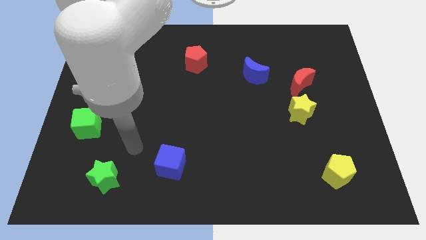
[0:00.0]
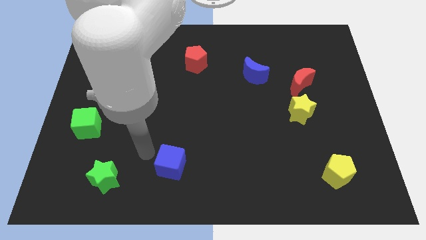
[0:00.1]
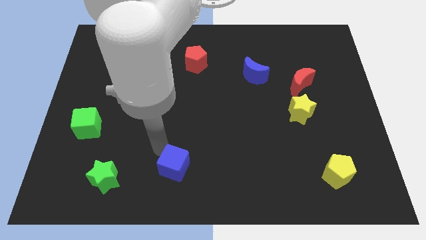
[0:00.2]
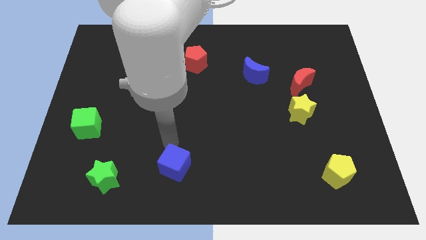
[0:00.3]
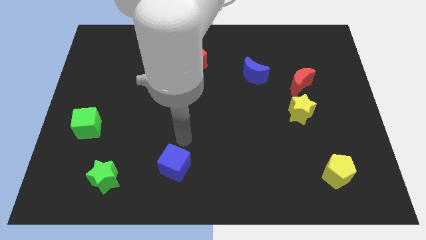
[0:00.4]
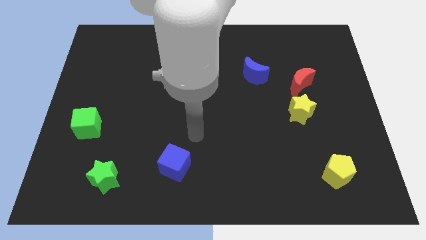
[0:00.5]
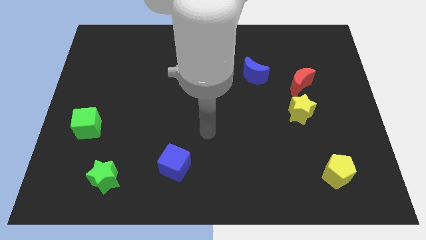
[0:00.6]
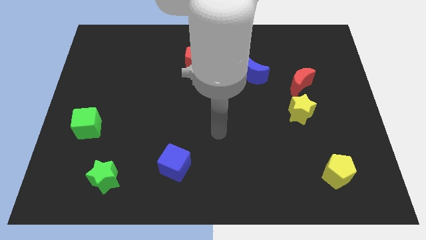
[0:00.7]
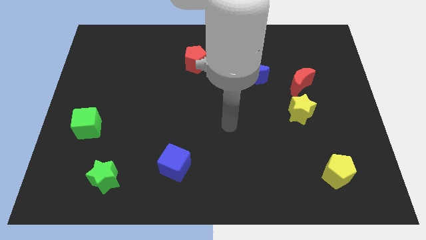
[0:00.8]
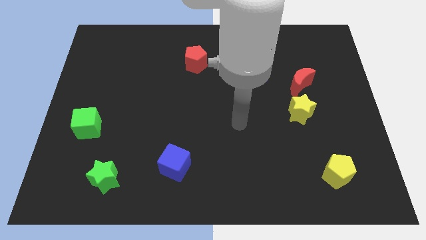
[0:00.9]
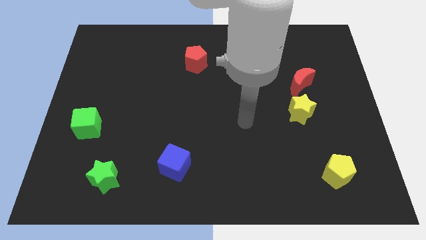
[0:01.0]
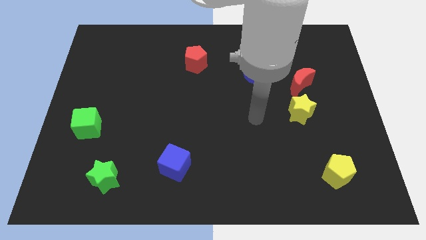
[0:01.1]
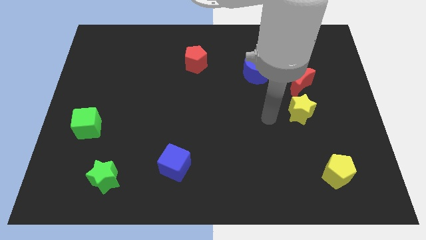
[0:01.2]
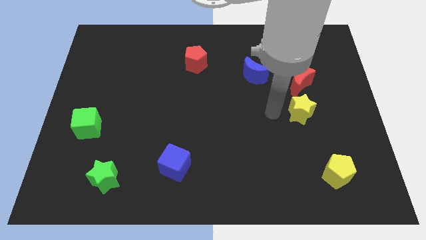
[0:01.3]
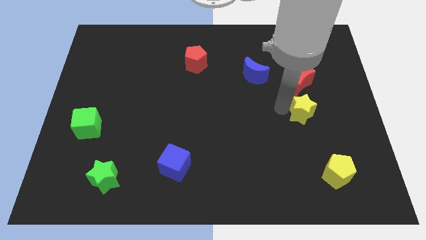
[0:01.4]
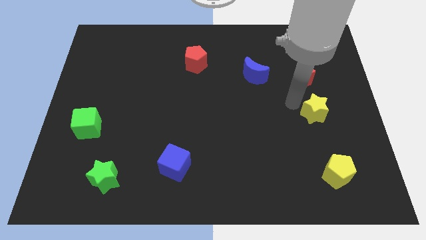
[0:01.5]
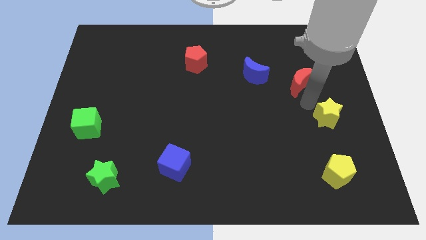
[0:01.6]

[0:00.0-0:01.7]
separate the red moon from the yellow star

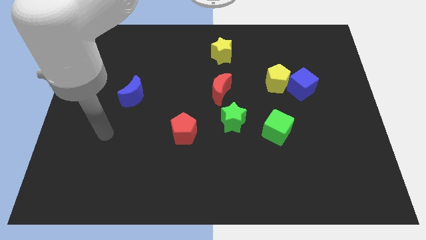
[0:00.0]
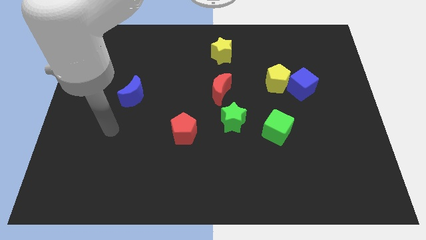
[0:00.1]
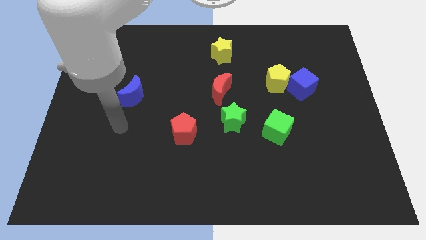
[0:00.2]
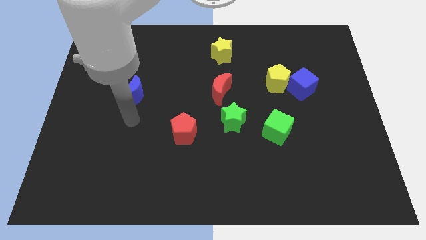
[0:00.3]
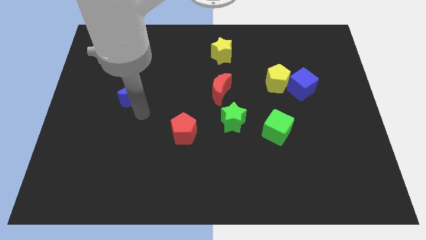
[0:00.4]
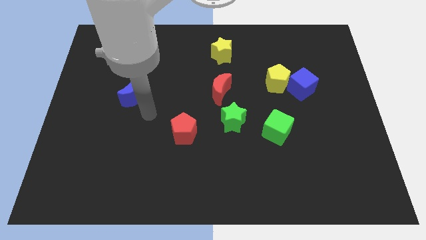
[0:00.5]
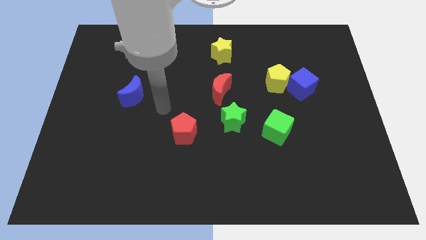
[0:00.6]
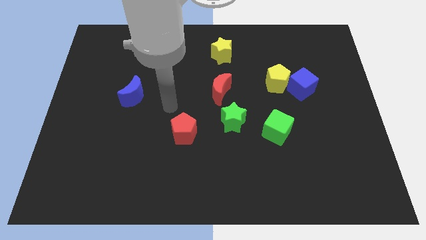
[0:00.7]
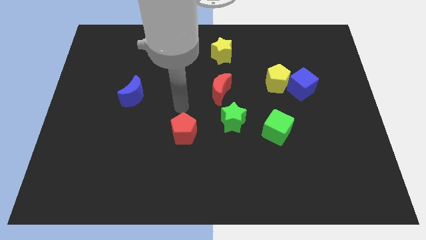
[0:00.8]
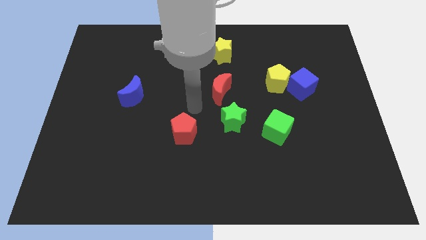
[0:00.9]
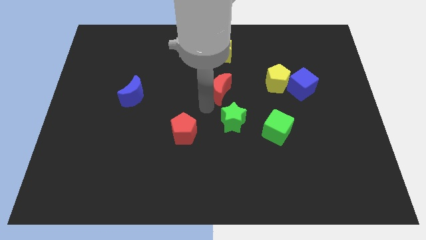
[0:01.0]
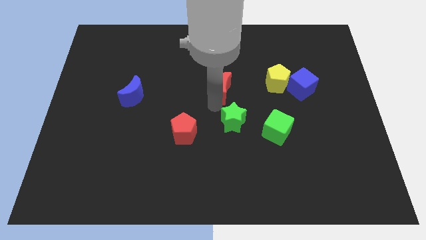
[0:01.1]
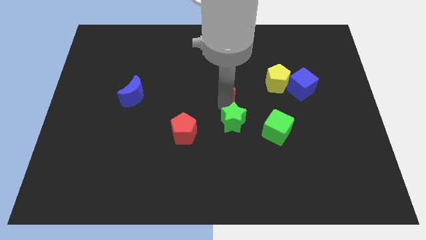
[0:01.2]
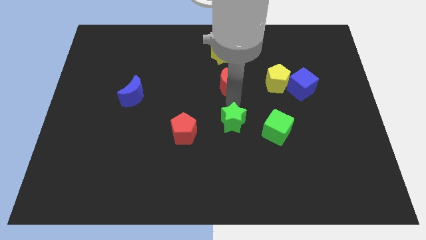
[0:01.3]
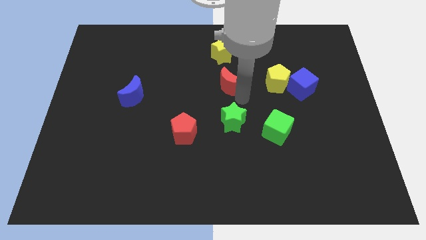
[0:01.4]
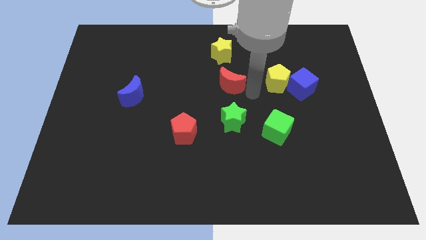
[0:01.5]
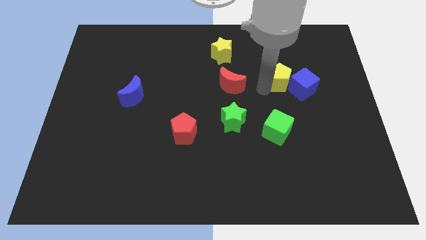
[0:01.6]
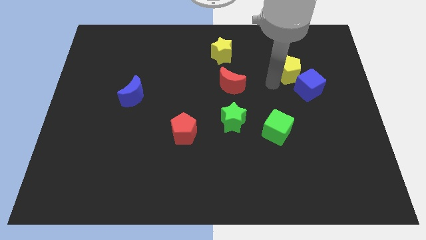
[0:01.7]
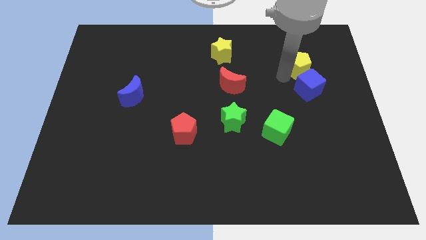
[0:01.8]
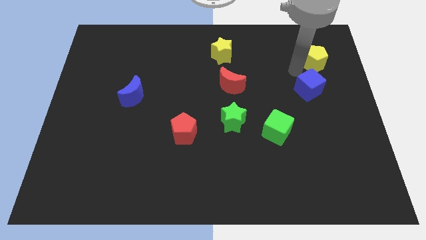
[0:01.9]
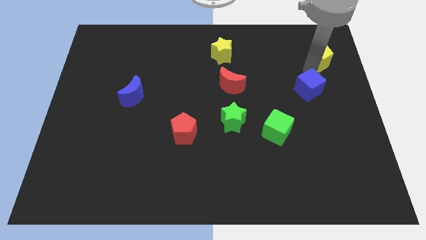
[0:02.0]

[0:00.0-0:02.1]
separate the blue cube from the yellow pentagon

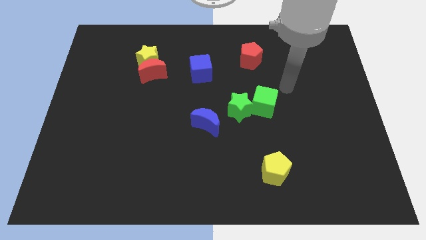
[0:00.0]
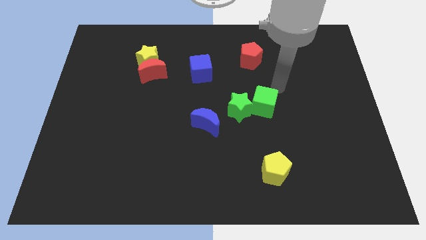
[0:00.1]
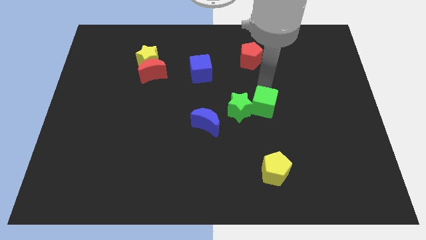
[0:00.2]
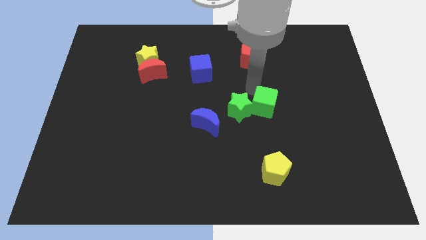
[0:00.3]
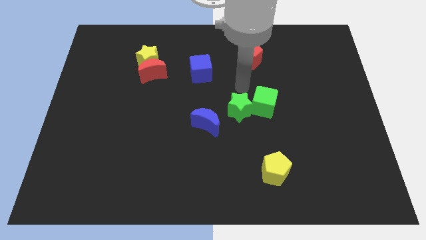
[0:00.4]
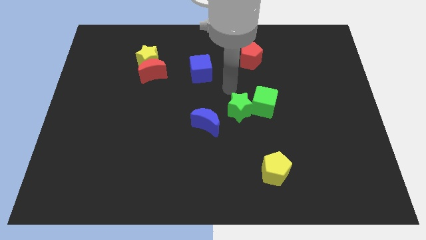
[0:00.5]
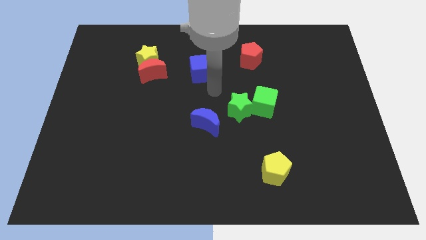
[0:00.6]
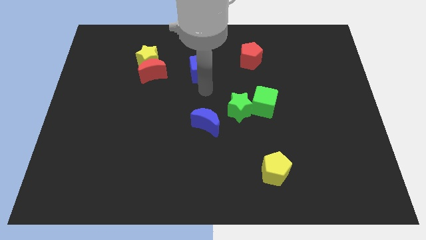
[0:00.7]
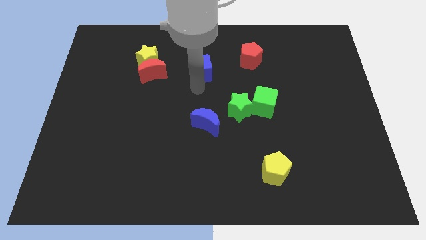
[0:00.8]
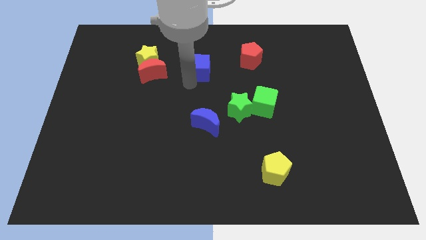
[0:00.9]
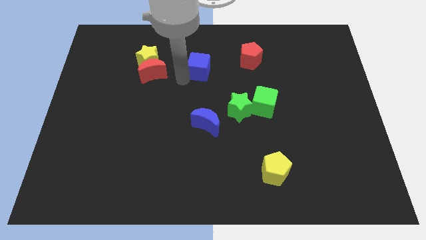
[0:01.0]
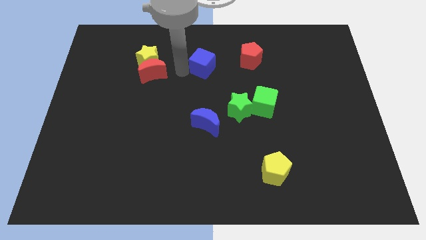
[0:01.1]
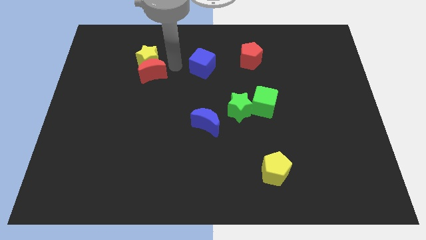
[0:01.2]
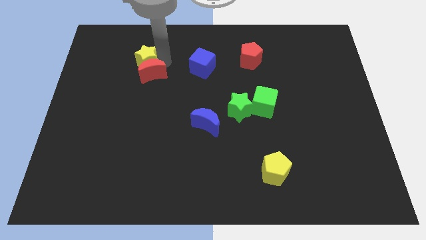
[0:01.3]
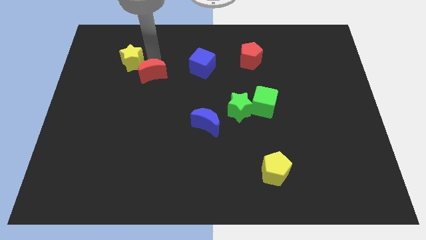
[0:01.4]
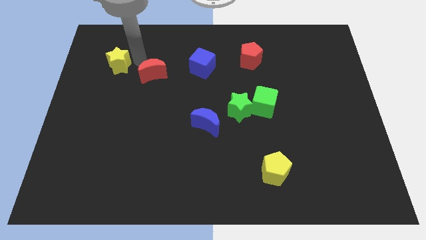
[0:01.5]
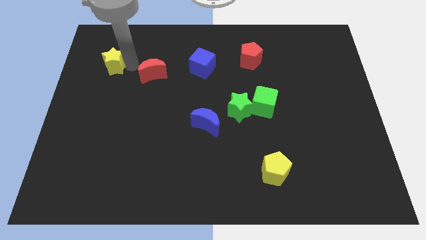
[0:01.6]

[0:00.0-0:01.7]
pull the red moon apart from the yellow star

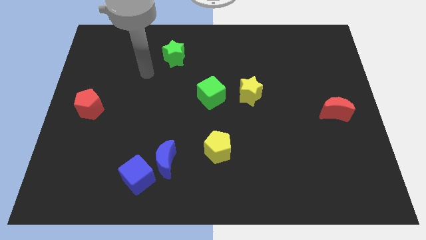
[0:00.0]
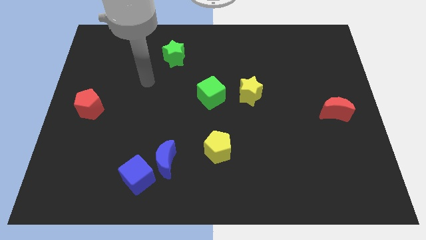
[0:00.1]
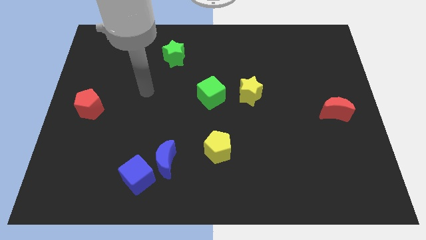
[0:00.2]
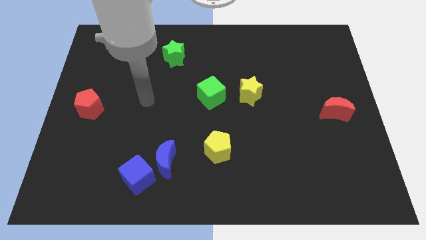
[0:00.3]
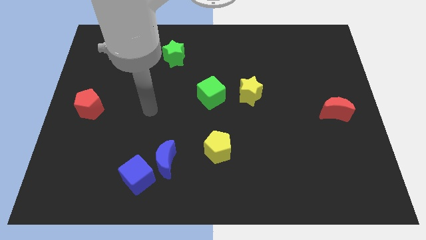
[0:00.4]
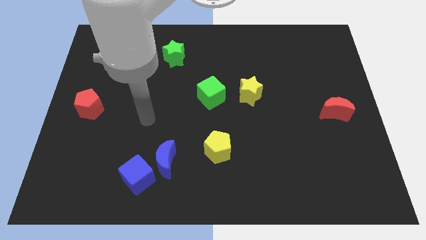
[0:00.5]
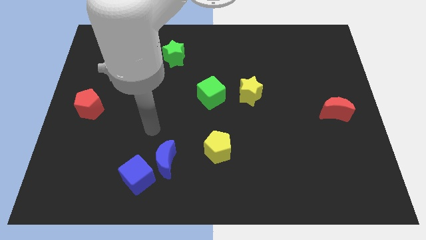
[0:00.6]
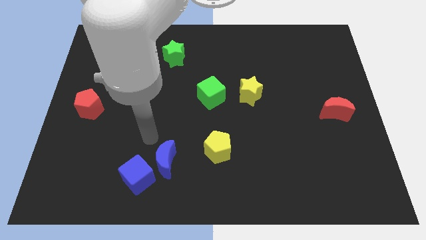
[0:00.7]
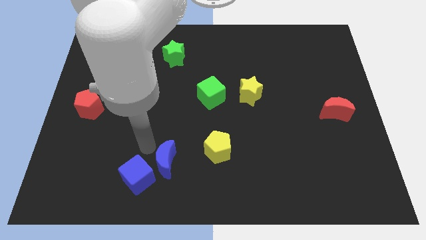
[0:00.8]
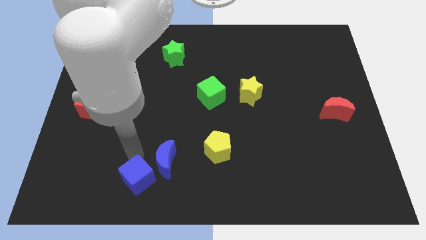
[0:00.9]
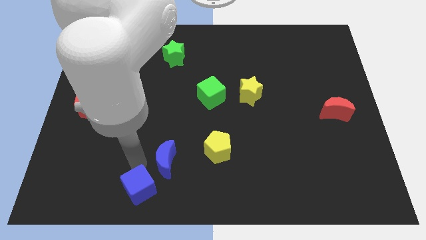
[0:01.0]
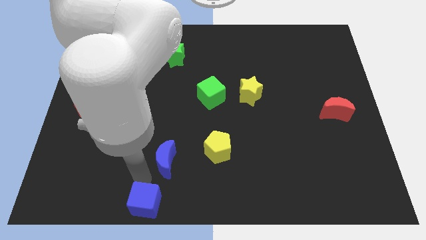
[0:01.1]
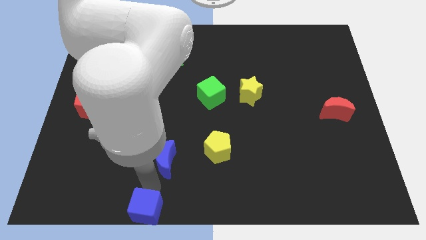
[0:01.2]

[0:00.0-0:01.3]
move the blue moon away from the blue cube

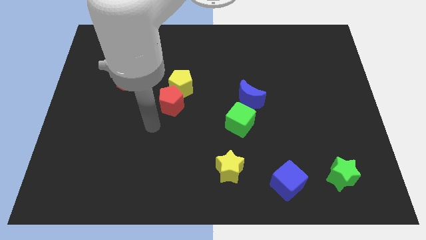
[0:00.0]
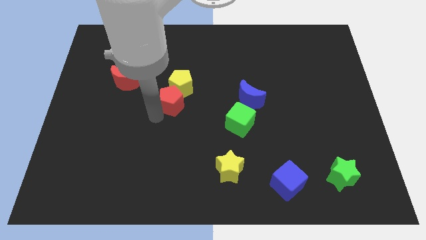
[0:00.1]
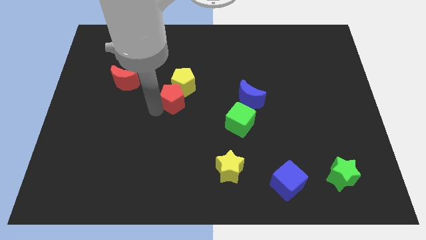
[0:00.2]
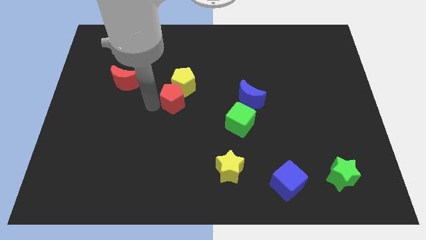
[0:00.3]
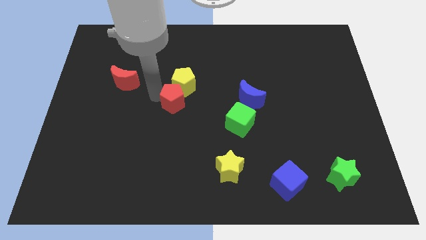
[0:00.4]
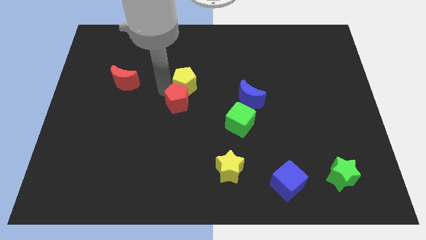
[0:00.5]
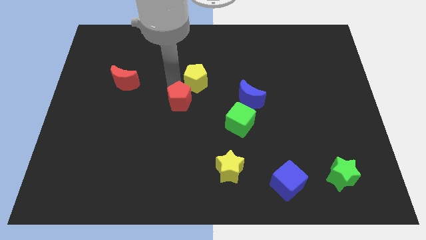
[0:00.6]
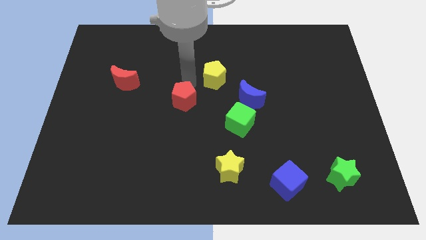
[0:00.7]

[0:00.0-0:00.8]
separate the red pentagon from the yellow pentagon

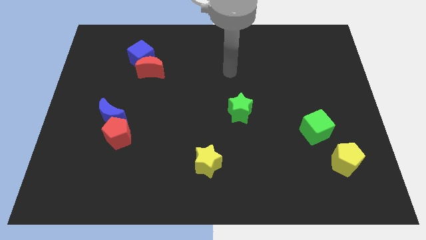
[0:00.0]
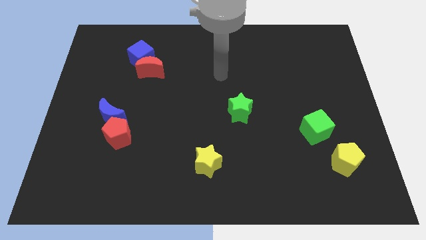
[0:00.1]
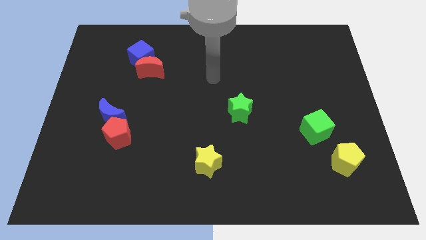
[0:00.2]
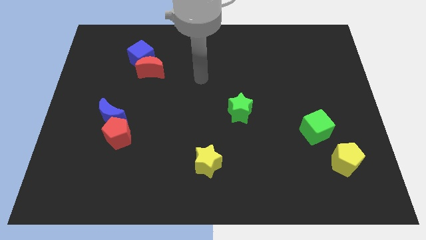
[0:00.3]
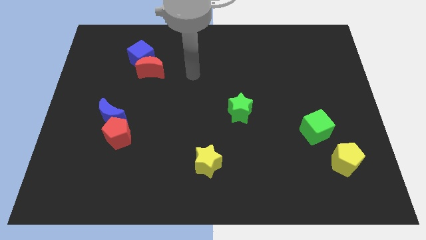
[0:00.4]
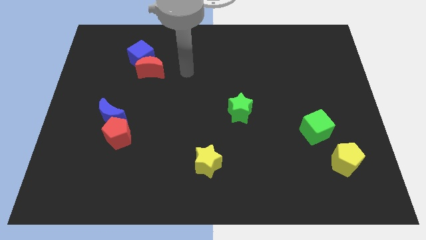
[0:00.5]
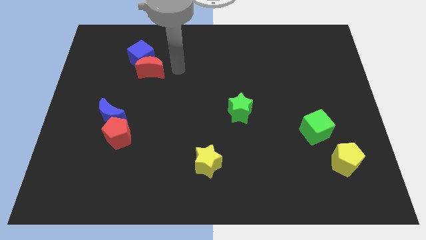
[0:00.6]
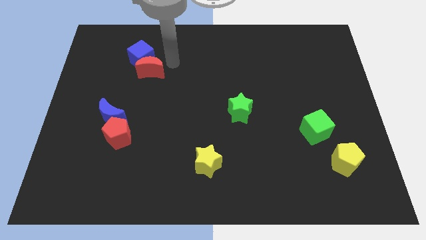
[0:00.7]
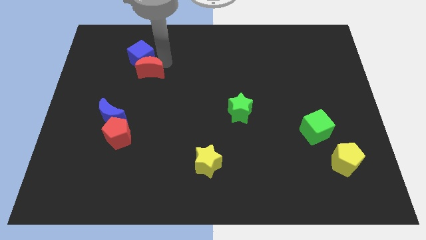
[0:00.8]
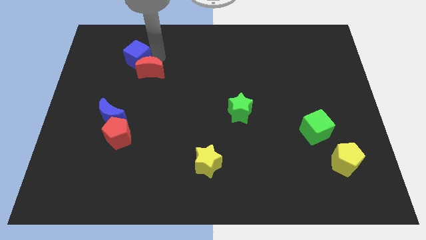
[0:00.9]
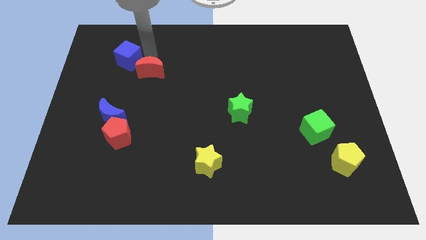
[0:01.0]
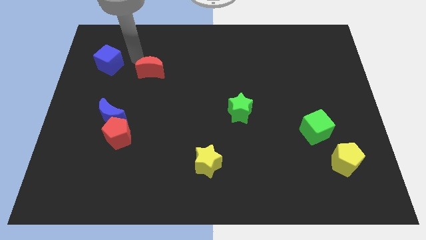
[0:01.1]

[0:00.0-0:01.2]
pull the red moon apart from the blue cube

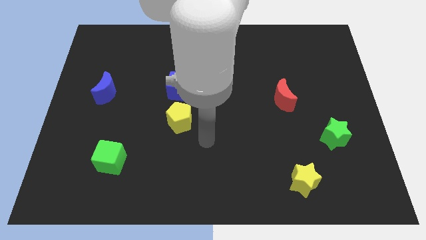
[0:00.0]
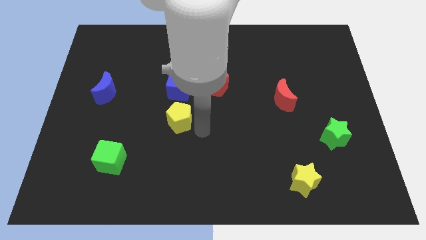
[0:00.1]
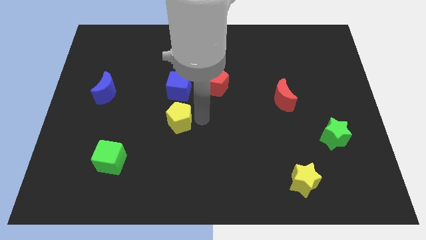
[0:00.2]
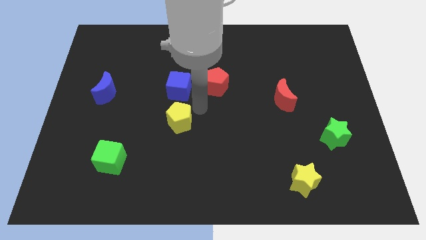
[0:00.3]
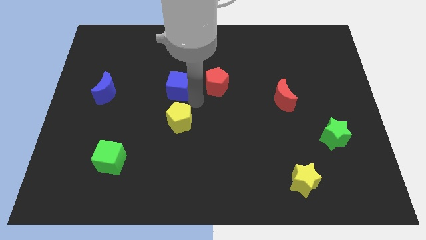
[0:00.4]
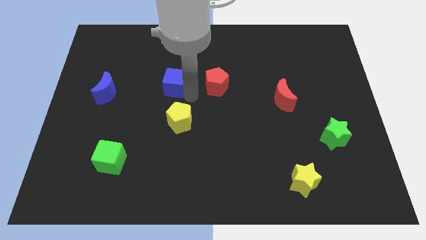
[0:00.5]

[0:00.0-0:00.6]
pull the red pentagon apart from the blue cube
